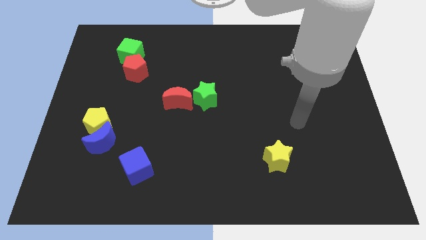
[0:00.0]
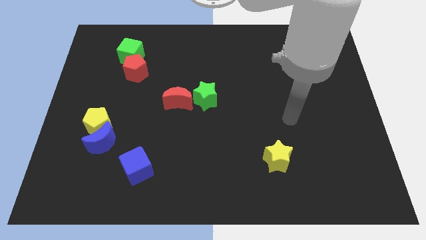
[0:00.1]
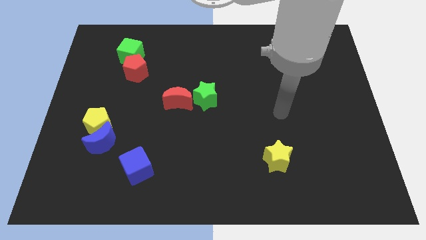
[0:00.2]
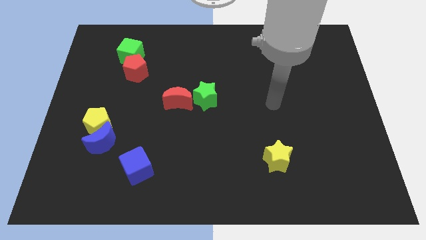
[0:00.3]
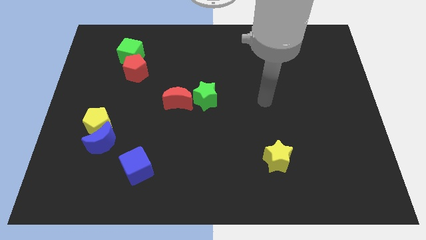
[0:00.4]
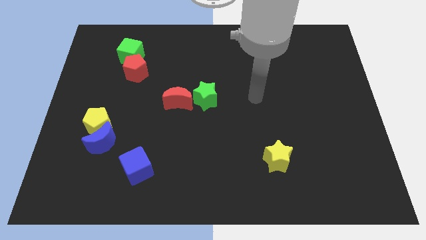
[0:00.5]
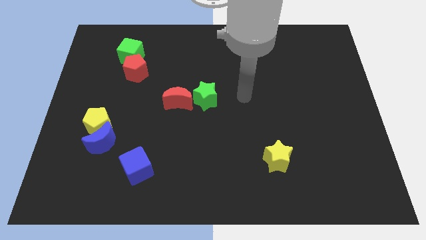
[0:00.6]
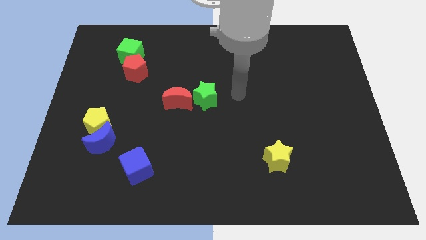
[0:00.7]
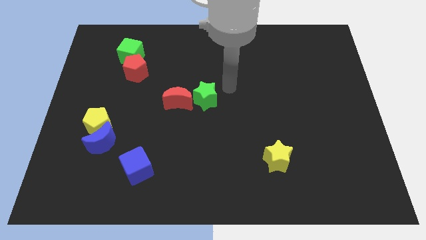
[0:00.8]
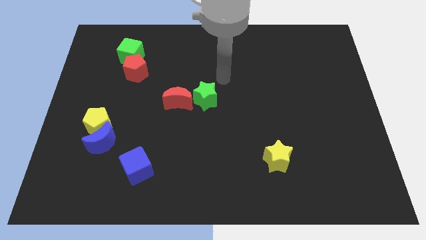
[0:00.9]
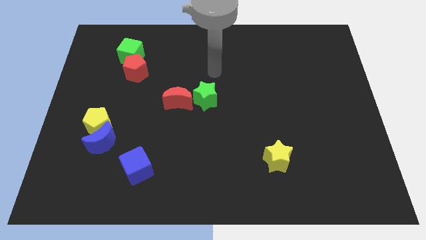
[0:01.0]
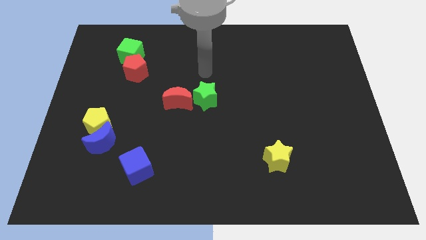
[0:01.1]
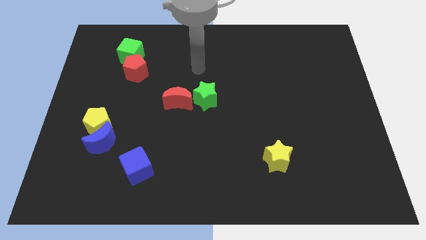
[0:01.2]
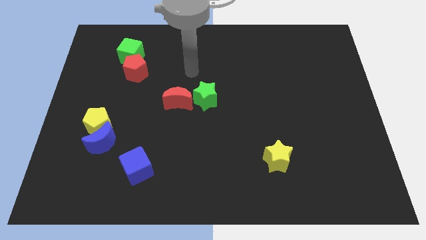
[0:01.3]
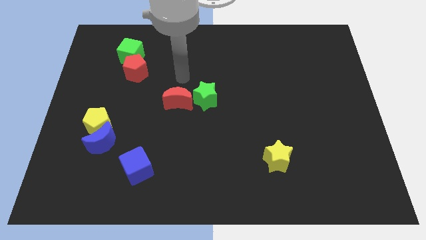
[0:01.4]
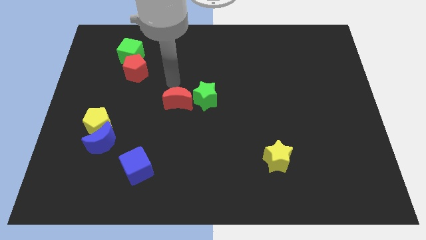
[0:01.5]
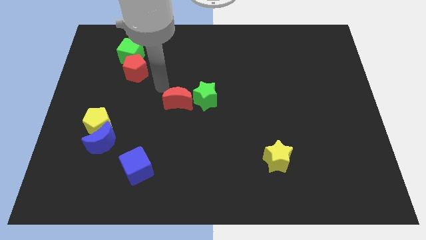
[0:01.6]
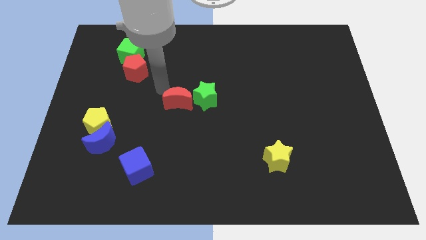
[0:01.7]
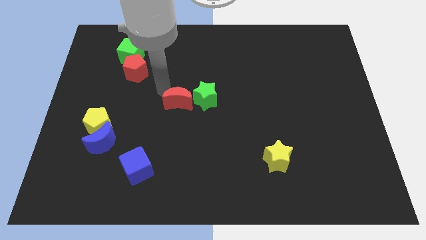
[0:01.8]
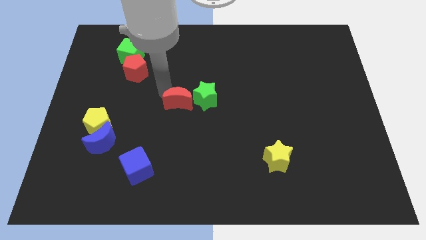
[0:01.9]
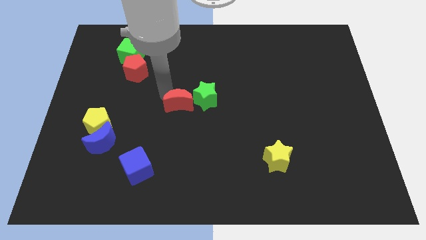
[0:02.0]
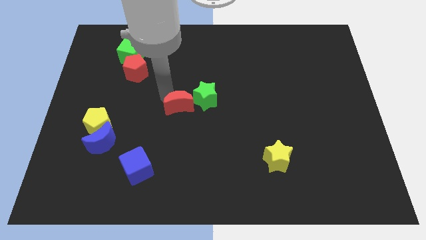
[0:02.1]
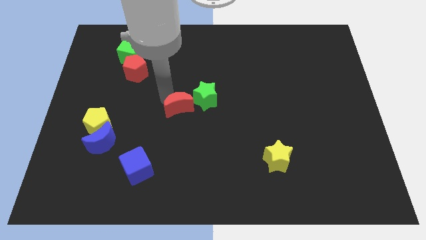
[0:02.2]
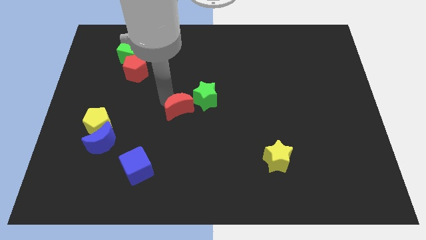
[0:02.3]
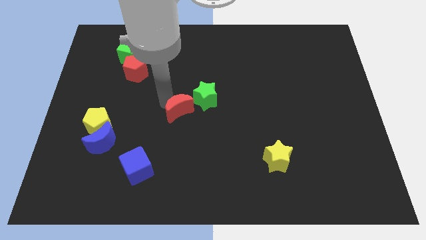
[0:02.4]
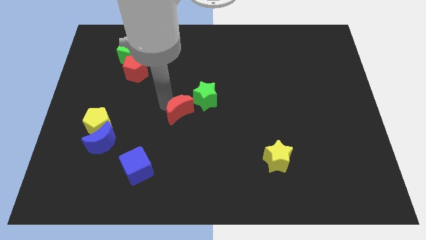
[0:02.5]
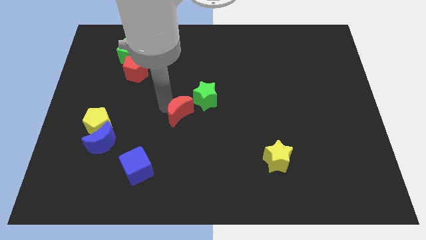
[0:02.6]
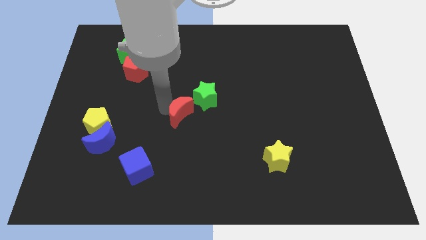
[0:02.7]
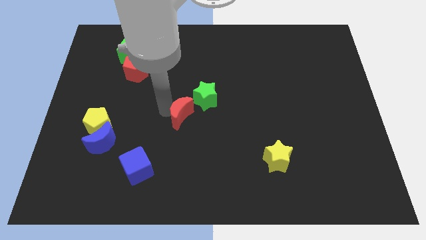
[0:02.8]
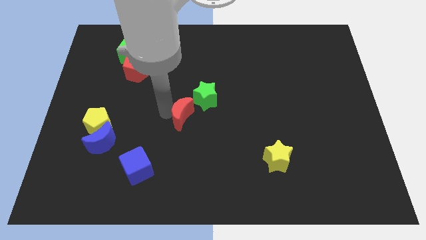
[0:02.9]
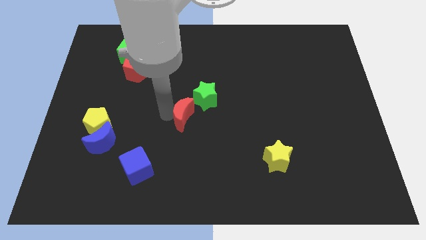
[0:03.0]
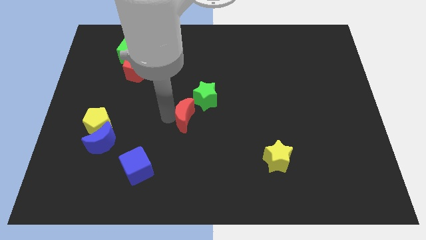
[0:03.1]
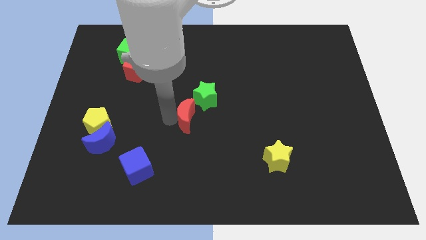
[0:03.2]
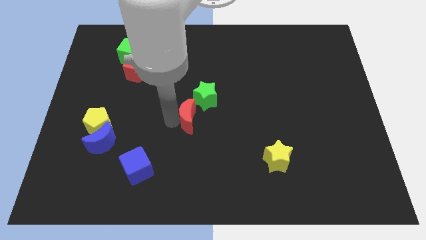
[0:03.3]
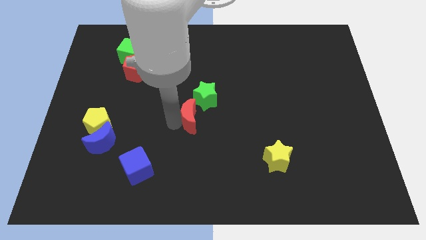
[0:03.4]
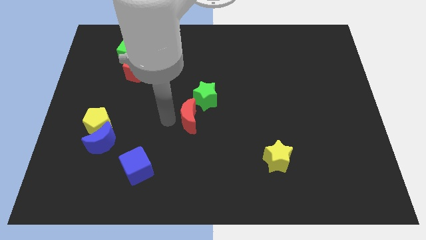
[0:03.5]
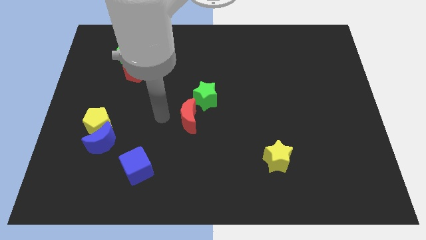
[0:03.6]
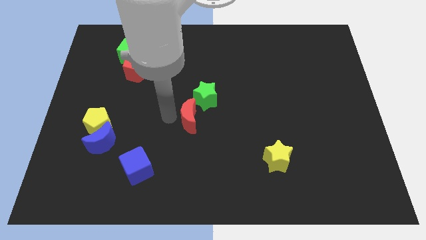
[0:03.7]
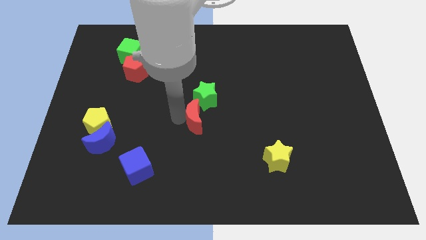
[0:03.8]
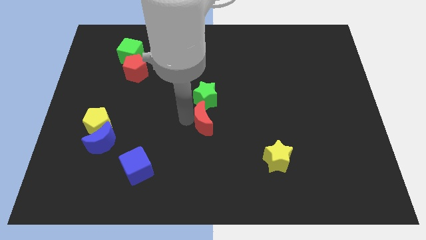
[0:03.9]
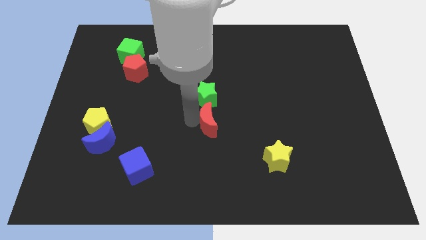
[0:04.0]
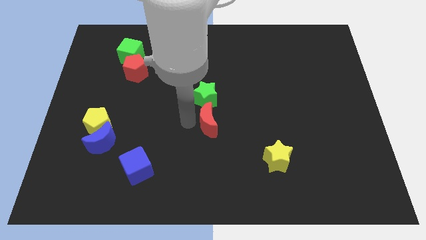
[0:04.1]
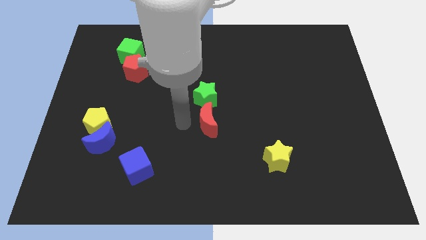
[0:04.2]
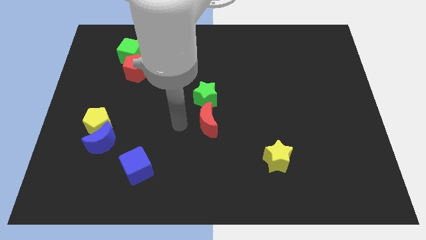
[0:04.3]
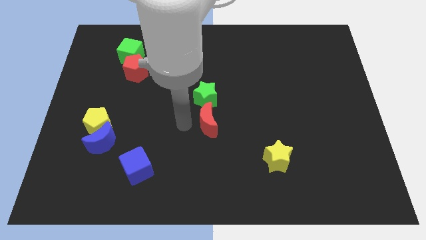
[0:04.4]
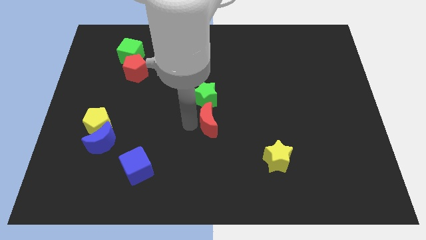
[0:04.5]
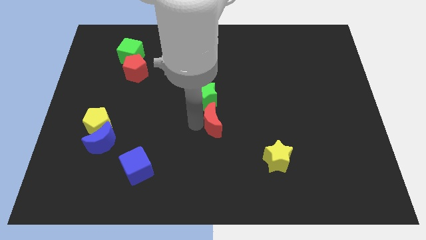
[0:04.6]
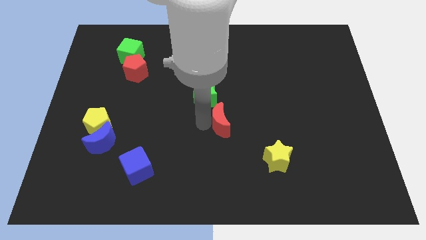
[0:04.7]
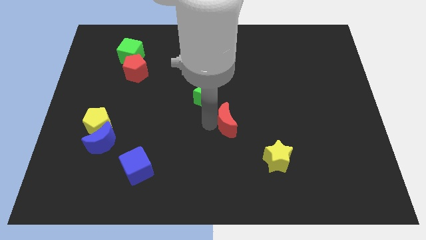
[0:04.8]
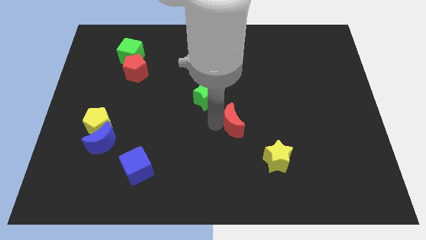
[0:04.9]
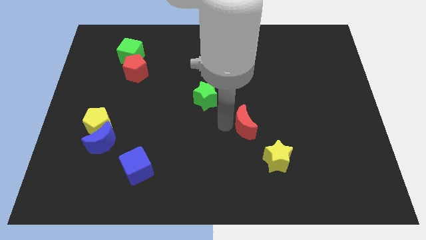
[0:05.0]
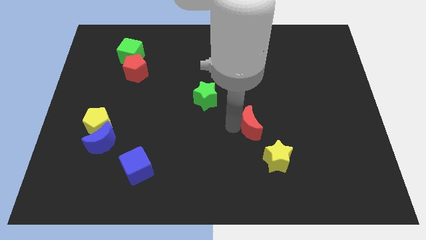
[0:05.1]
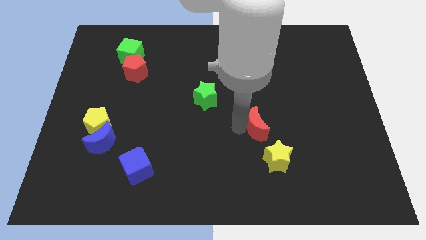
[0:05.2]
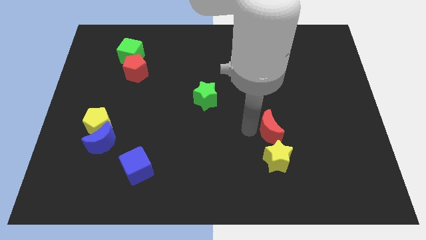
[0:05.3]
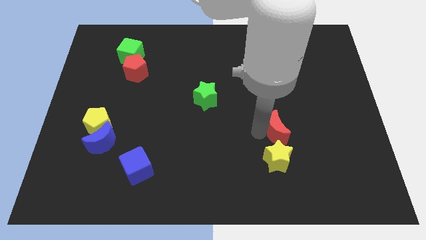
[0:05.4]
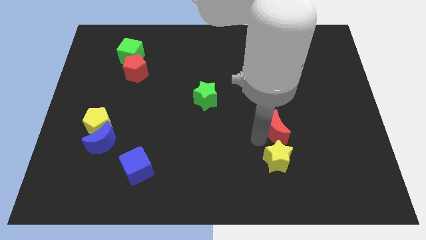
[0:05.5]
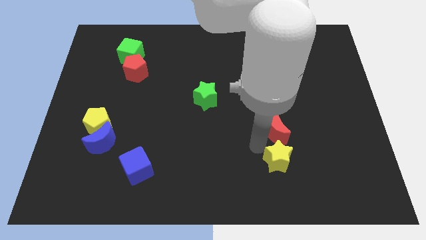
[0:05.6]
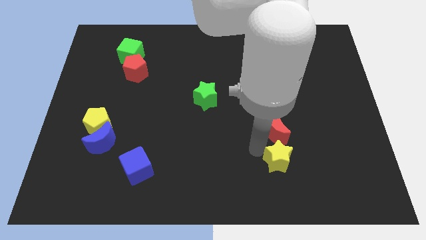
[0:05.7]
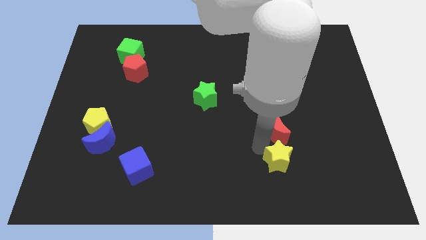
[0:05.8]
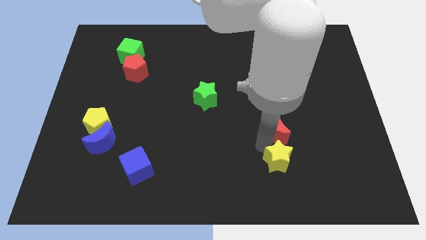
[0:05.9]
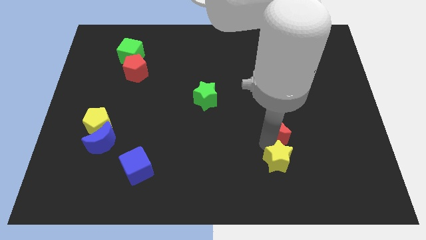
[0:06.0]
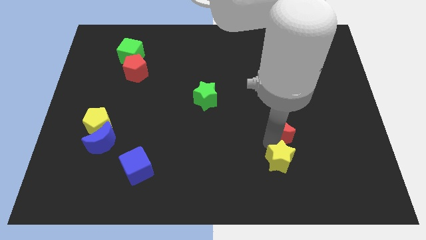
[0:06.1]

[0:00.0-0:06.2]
move the red moon to the right

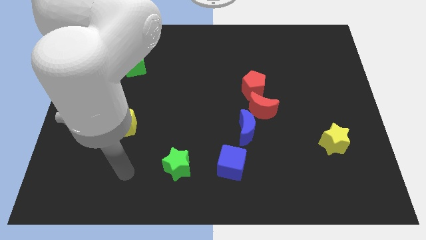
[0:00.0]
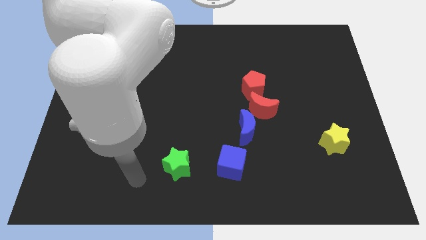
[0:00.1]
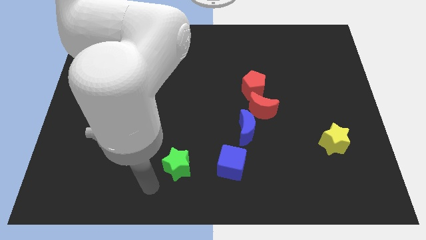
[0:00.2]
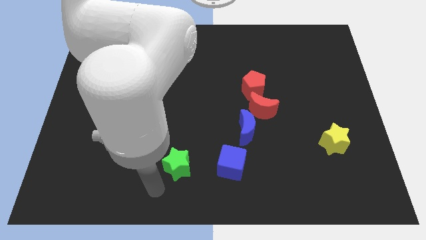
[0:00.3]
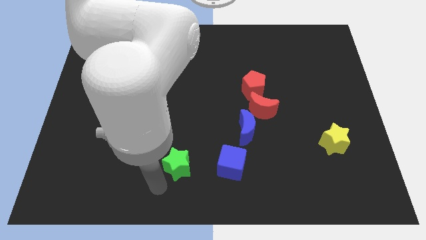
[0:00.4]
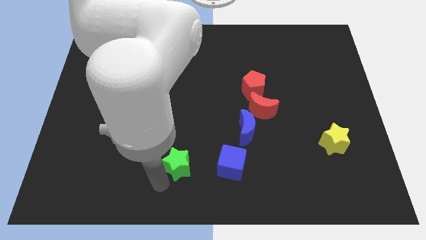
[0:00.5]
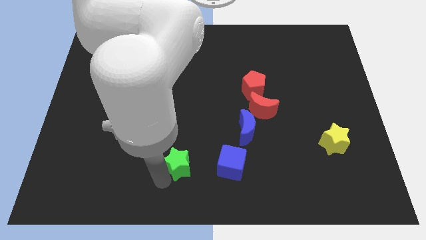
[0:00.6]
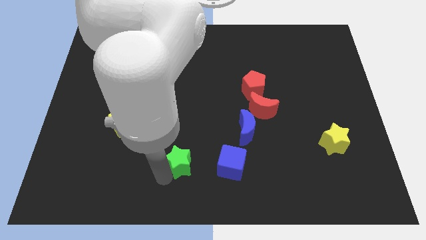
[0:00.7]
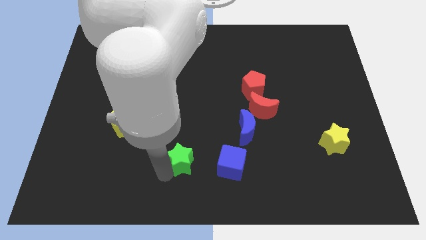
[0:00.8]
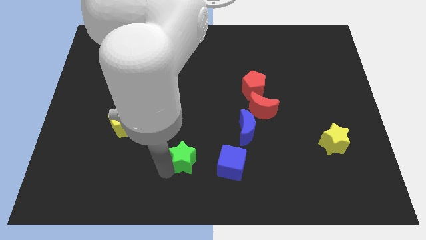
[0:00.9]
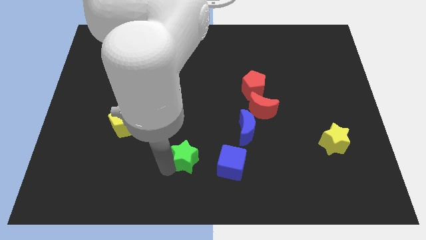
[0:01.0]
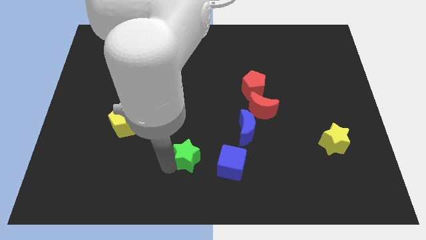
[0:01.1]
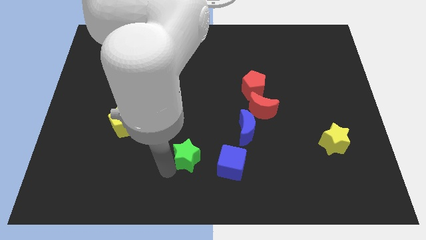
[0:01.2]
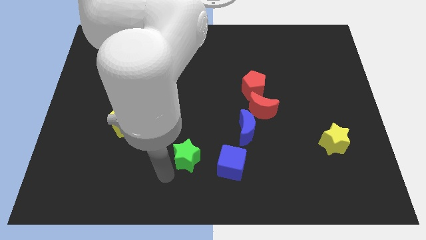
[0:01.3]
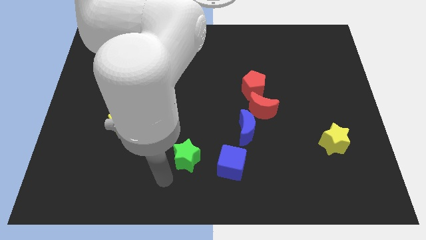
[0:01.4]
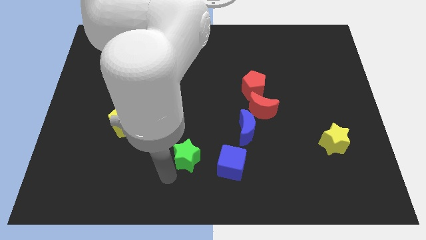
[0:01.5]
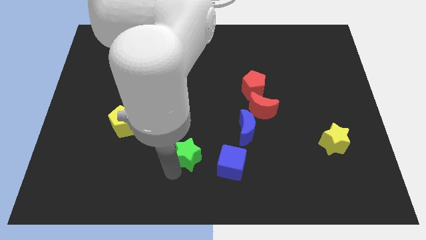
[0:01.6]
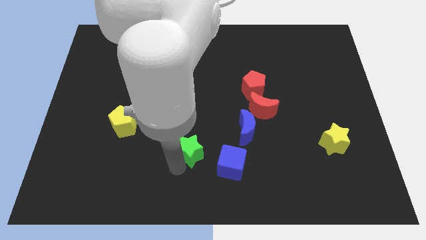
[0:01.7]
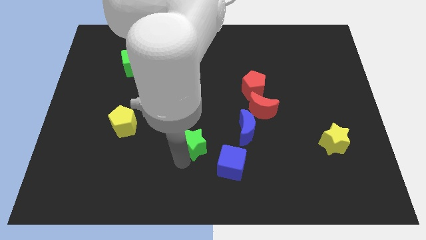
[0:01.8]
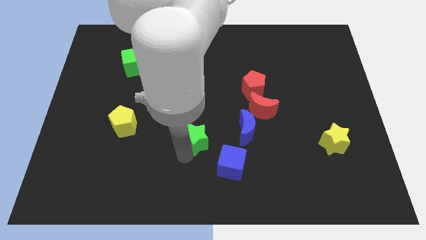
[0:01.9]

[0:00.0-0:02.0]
slightly slide the green star diagonally upwards and to the right
